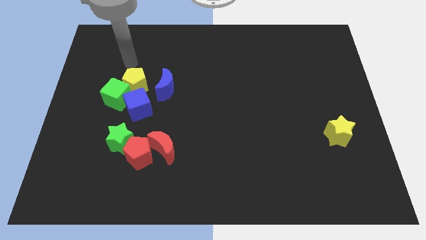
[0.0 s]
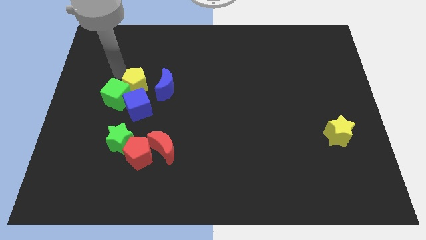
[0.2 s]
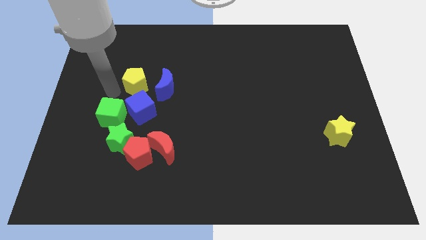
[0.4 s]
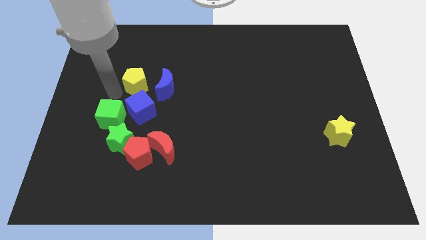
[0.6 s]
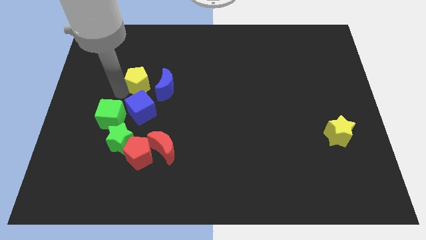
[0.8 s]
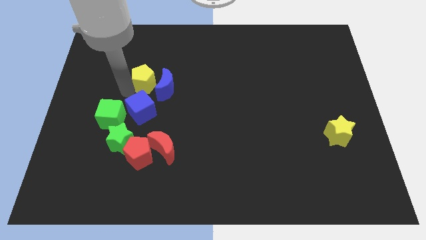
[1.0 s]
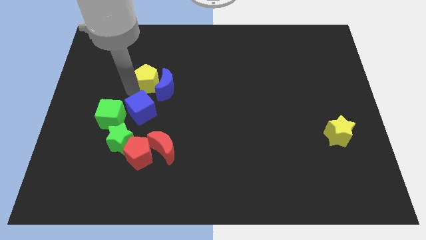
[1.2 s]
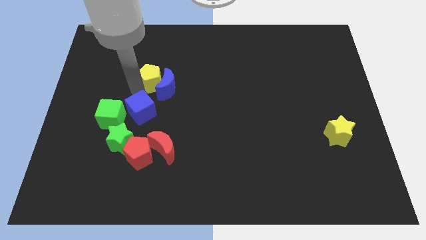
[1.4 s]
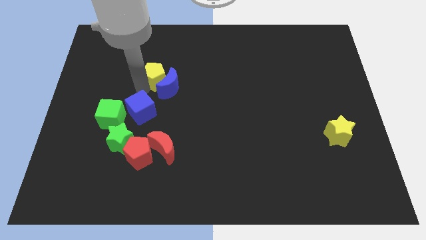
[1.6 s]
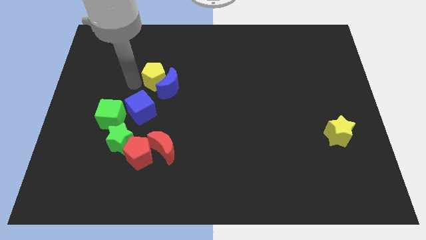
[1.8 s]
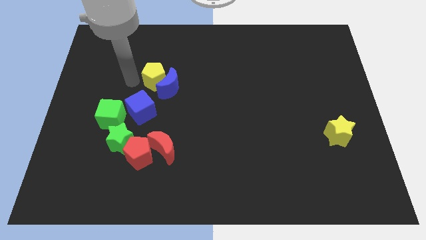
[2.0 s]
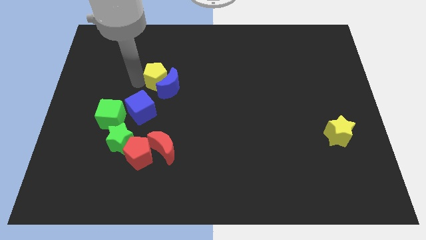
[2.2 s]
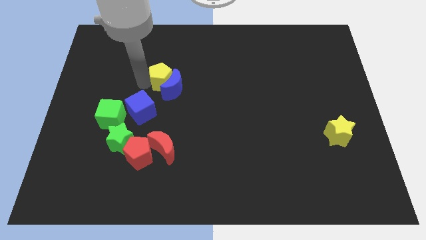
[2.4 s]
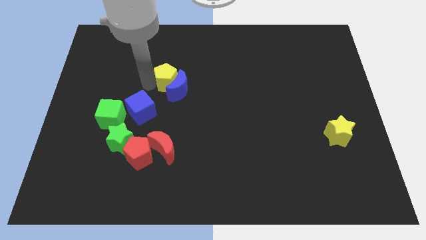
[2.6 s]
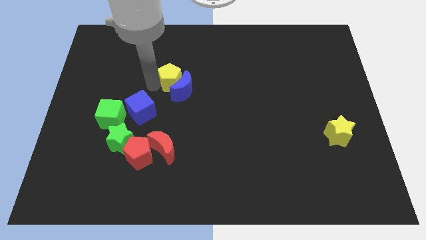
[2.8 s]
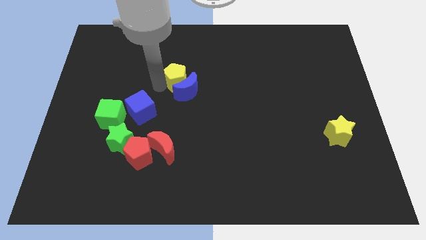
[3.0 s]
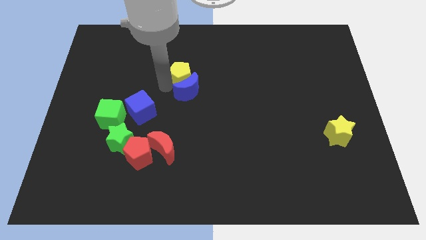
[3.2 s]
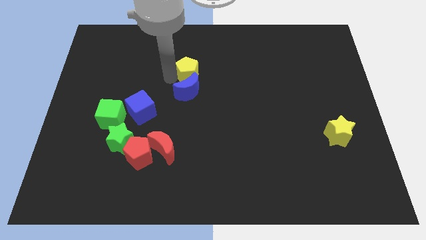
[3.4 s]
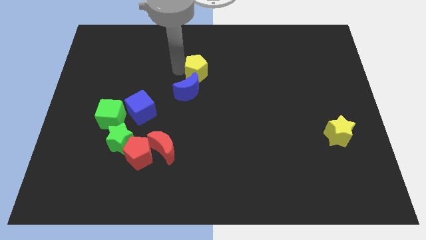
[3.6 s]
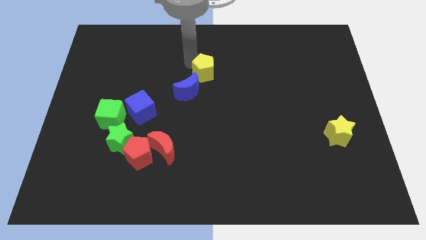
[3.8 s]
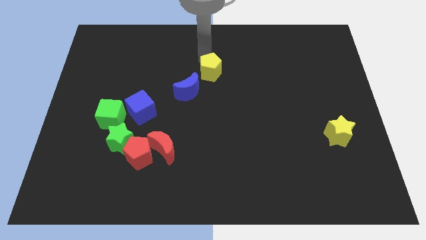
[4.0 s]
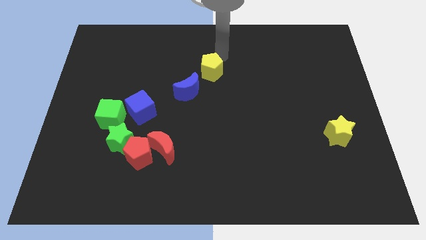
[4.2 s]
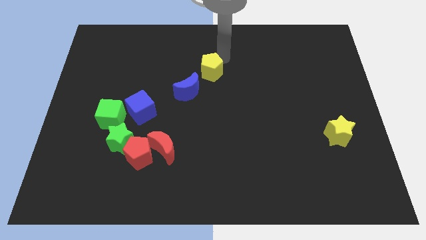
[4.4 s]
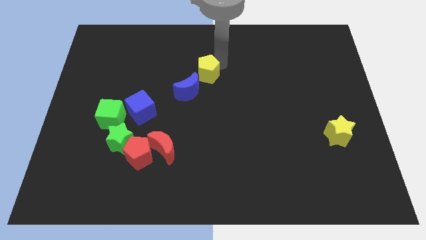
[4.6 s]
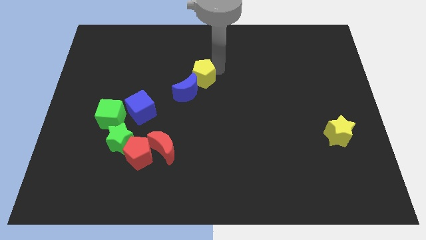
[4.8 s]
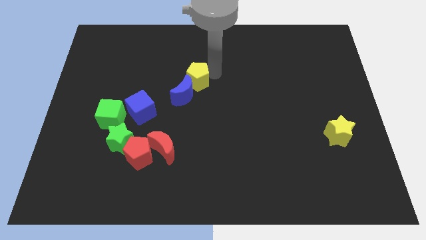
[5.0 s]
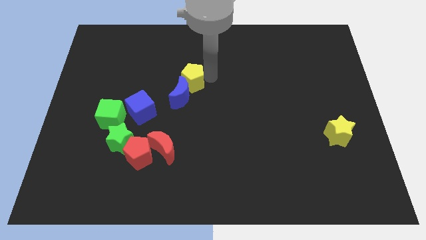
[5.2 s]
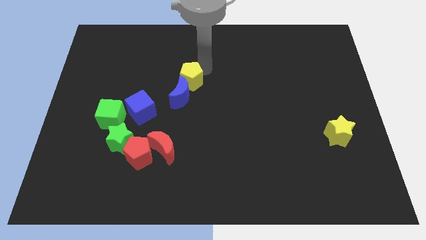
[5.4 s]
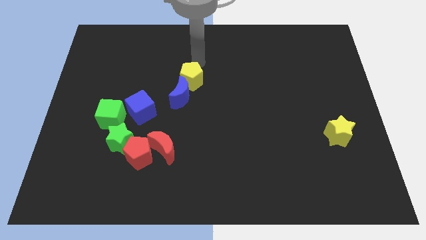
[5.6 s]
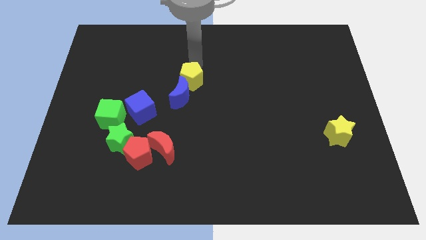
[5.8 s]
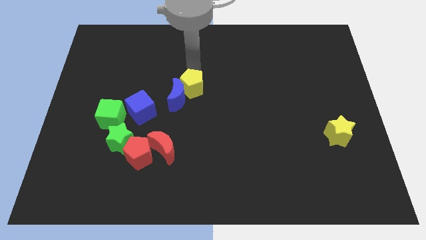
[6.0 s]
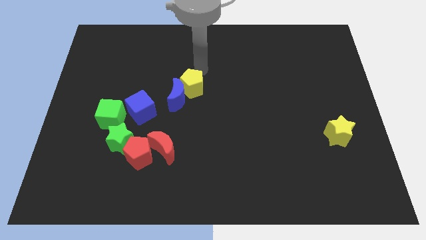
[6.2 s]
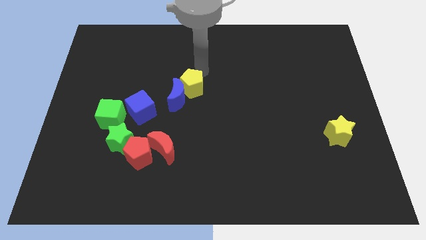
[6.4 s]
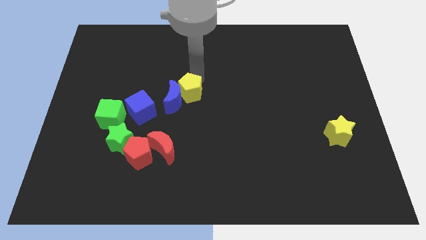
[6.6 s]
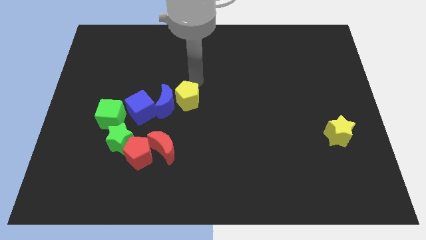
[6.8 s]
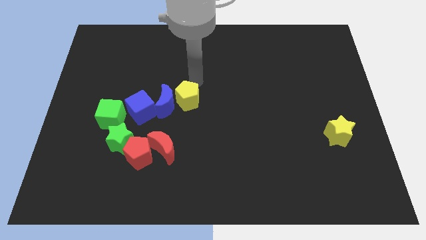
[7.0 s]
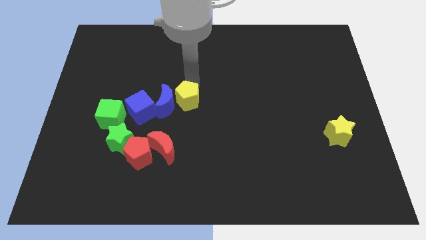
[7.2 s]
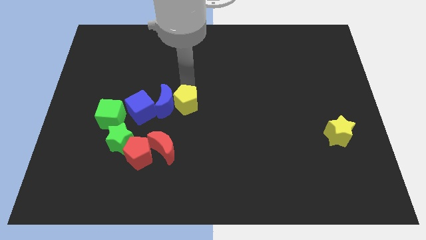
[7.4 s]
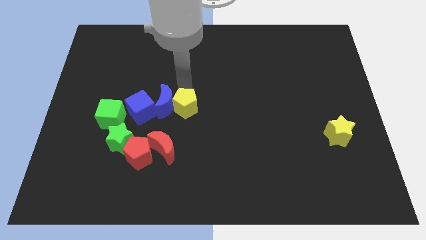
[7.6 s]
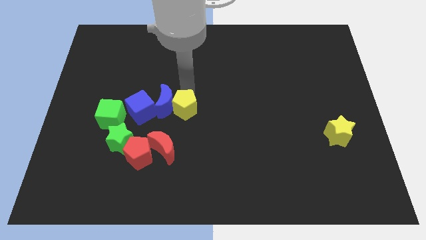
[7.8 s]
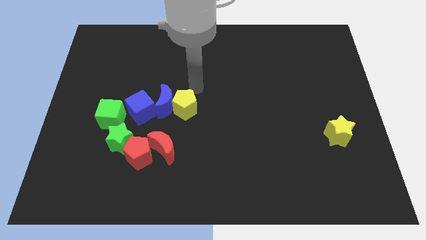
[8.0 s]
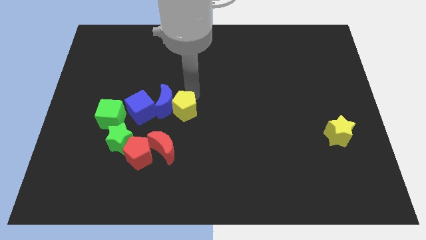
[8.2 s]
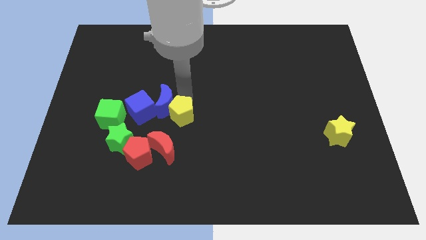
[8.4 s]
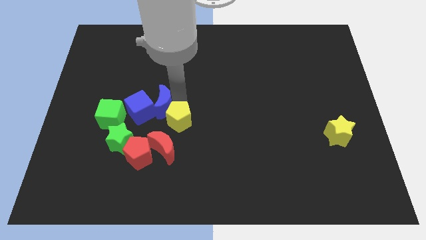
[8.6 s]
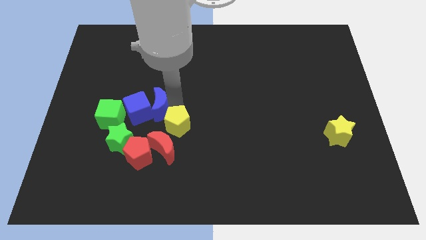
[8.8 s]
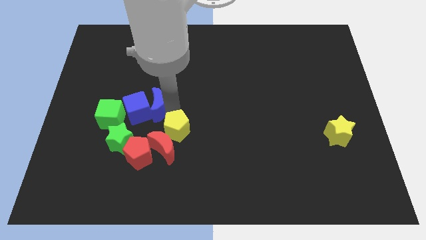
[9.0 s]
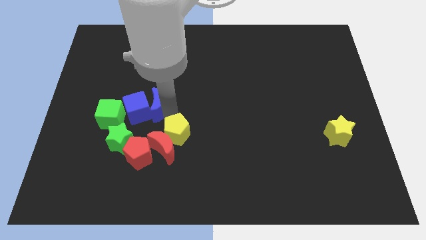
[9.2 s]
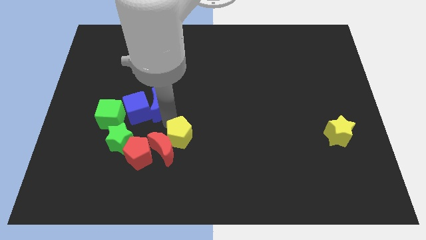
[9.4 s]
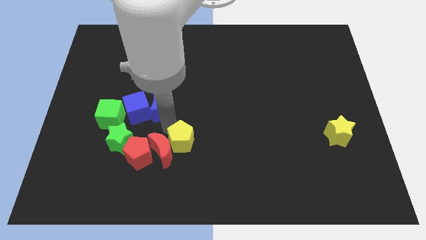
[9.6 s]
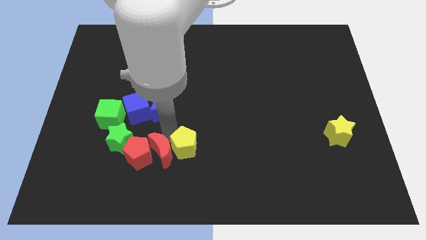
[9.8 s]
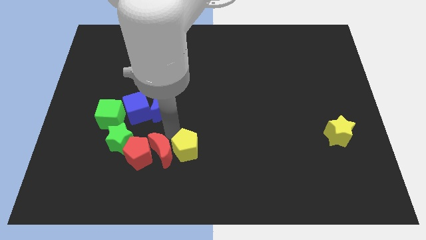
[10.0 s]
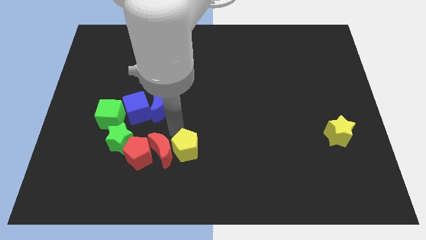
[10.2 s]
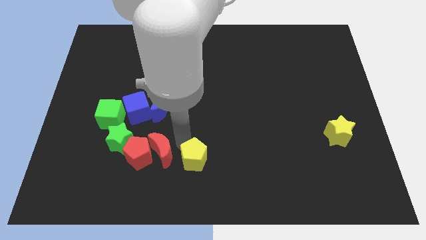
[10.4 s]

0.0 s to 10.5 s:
move the yellow pentagon to the bottom

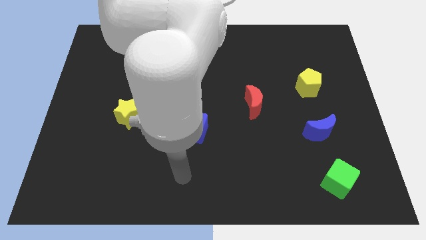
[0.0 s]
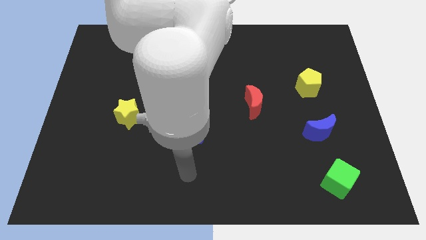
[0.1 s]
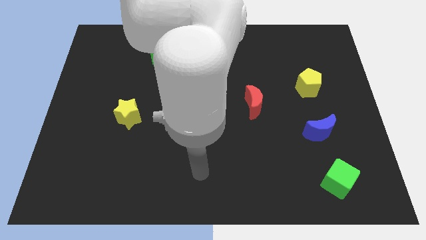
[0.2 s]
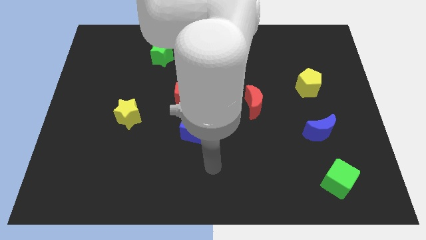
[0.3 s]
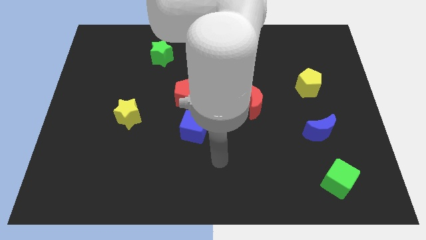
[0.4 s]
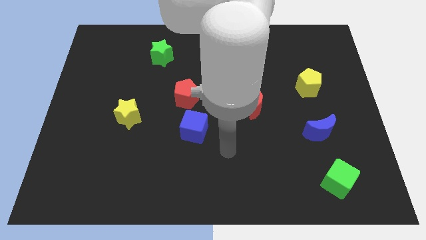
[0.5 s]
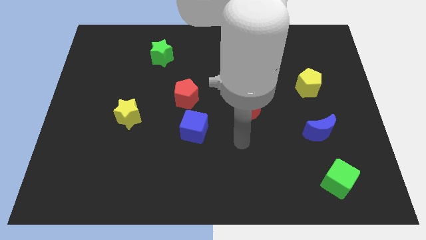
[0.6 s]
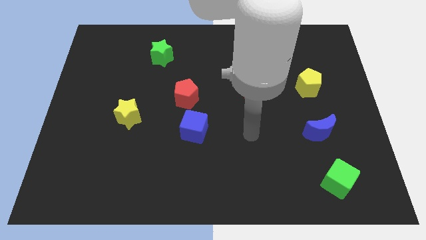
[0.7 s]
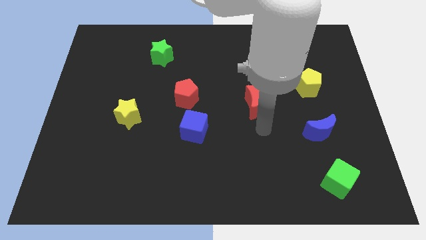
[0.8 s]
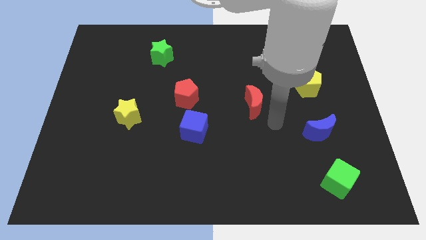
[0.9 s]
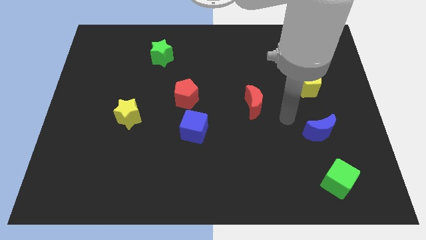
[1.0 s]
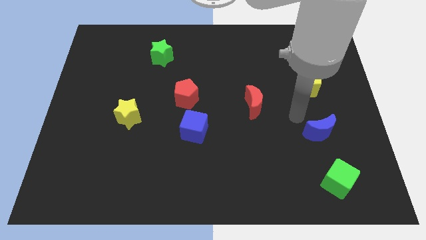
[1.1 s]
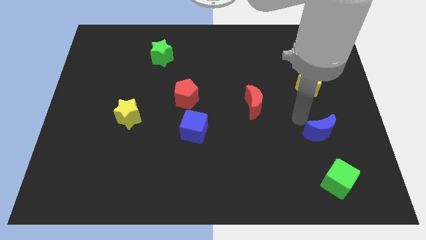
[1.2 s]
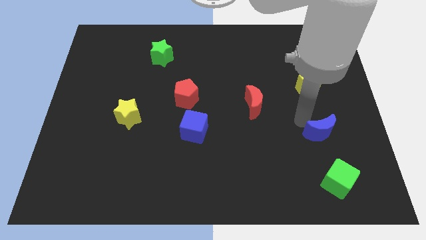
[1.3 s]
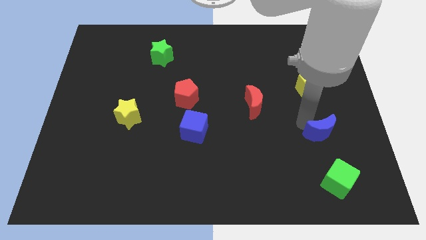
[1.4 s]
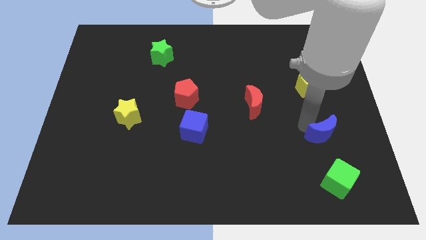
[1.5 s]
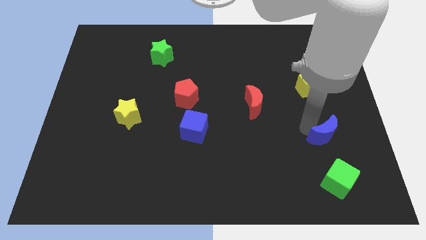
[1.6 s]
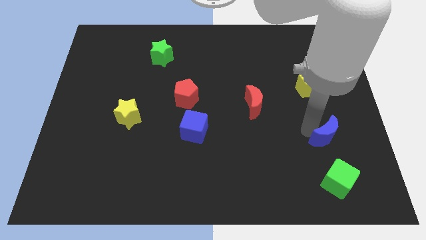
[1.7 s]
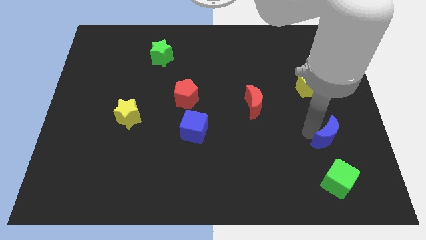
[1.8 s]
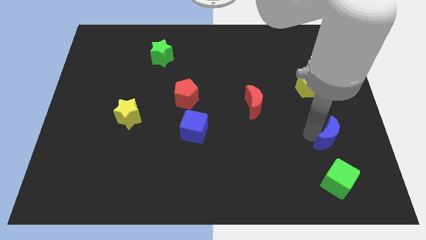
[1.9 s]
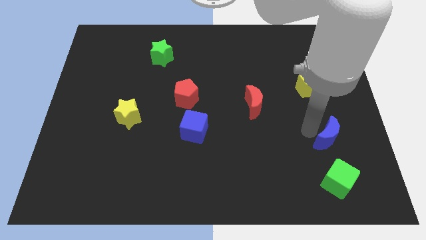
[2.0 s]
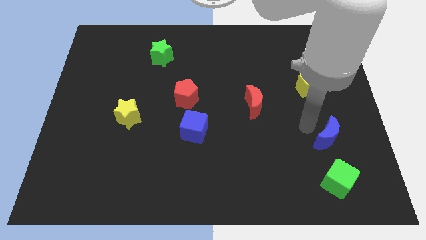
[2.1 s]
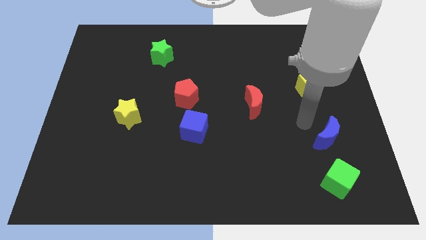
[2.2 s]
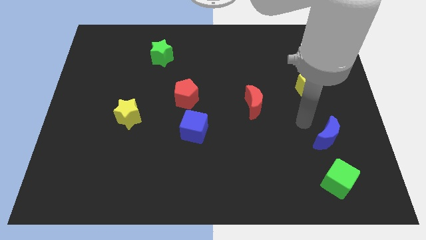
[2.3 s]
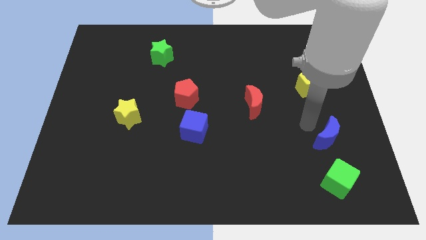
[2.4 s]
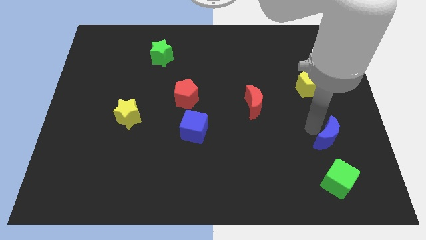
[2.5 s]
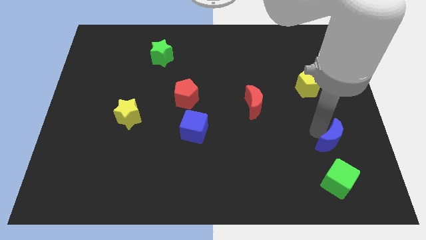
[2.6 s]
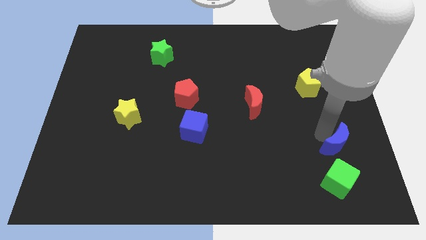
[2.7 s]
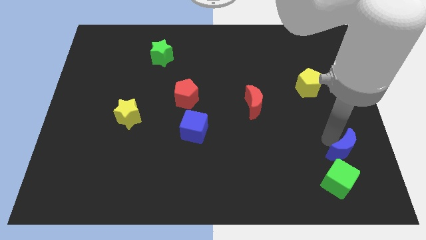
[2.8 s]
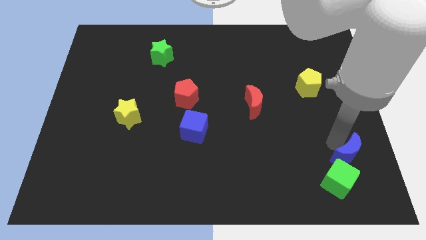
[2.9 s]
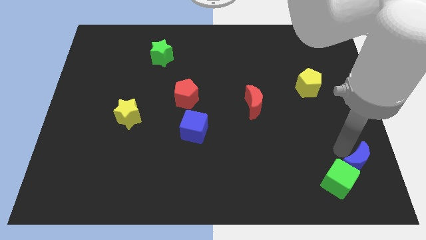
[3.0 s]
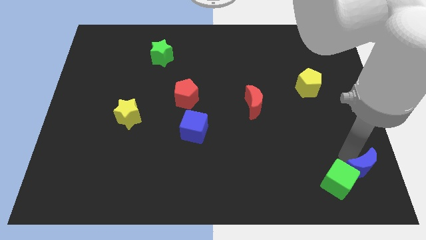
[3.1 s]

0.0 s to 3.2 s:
push the blue moon to the bottom right
